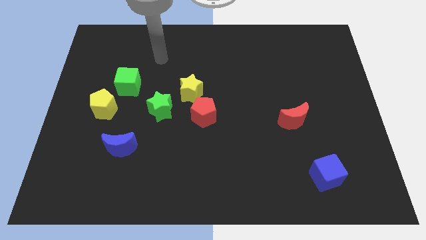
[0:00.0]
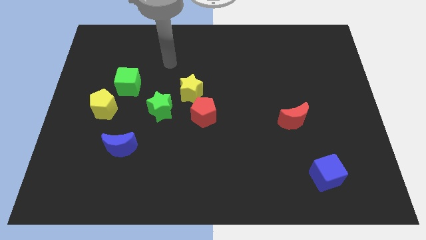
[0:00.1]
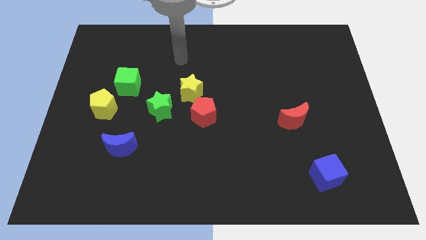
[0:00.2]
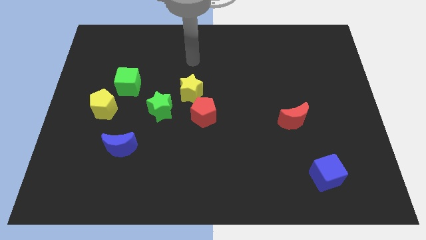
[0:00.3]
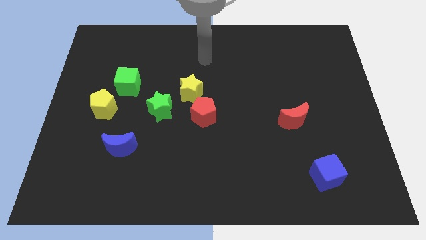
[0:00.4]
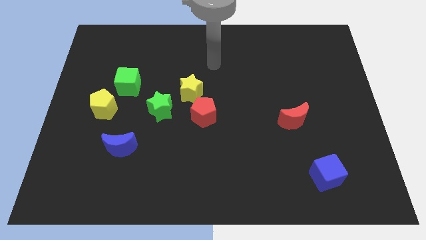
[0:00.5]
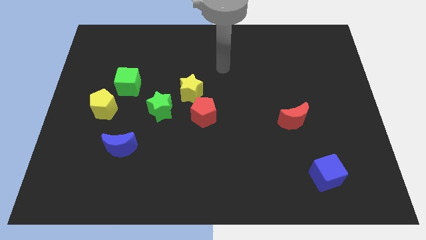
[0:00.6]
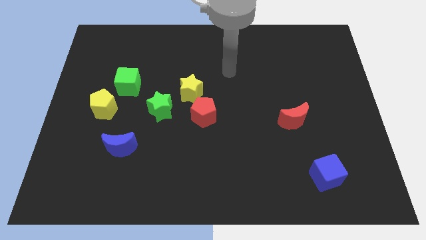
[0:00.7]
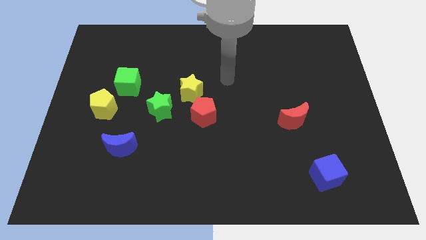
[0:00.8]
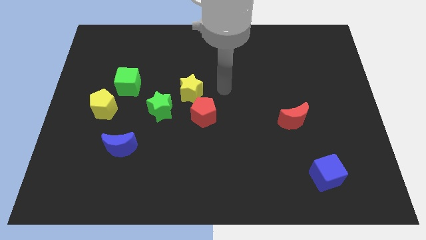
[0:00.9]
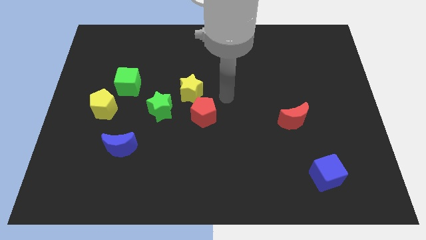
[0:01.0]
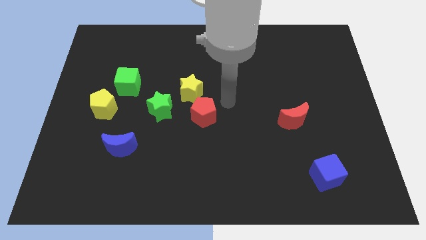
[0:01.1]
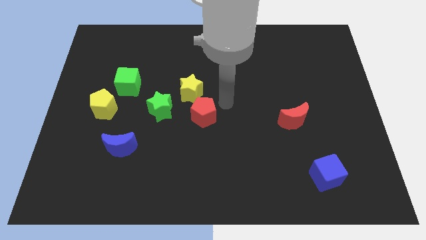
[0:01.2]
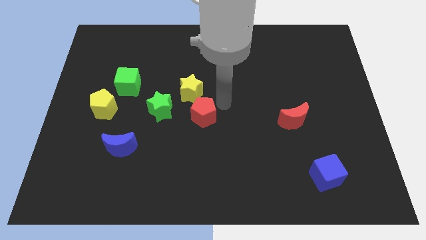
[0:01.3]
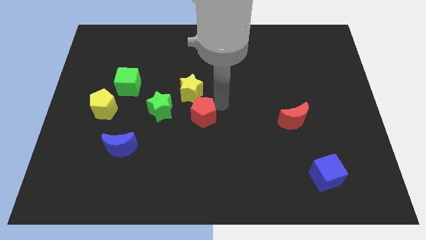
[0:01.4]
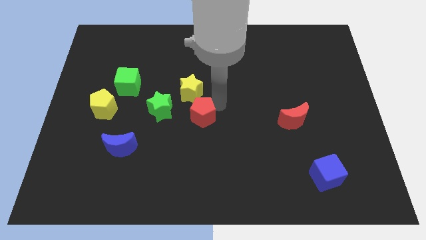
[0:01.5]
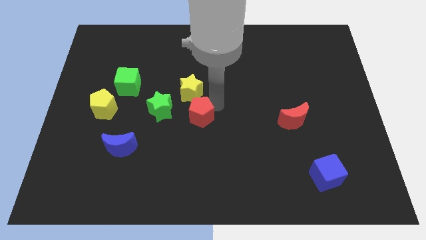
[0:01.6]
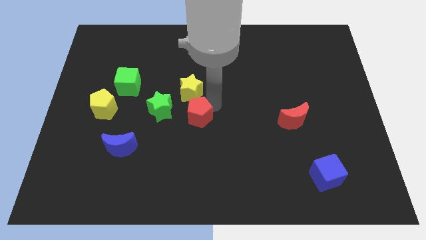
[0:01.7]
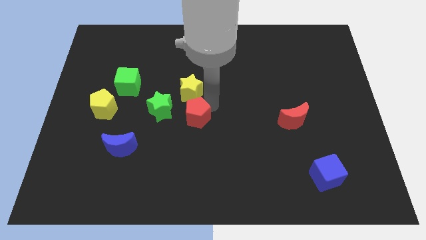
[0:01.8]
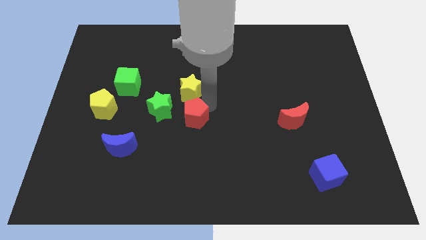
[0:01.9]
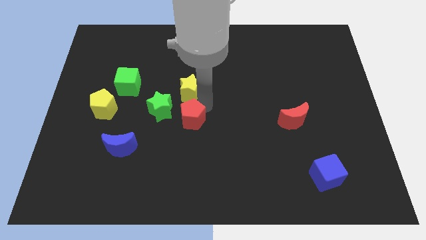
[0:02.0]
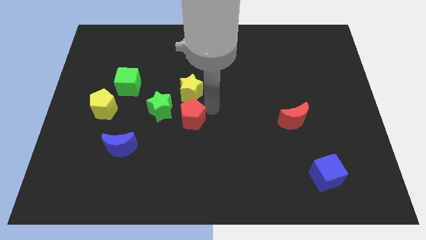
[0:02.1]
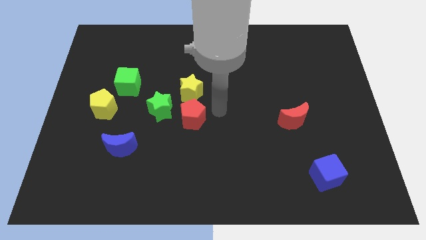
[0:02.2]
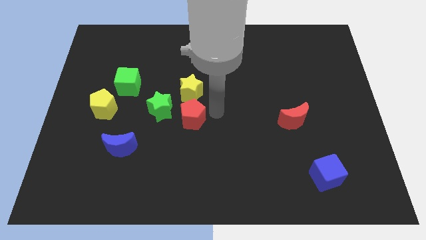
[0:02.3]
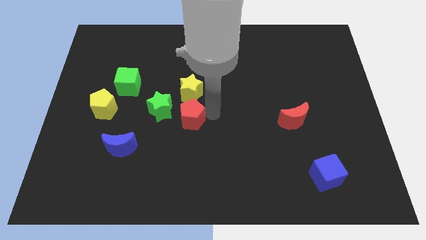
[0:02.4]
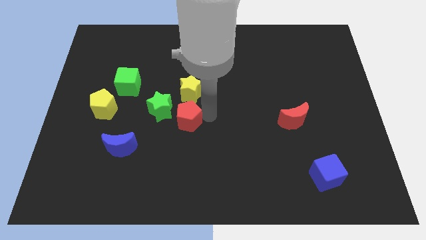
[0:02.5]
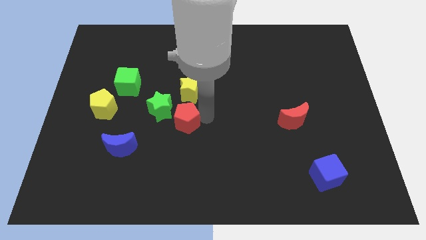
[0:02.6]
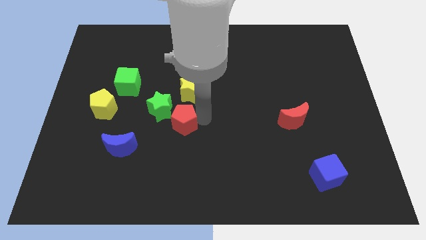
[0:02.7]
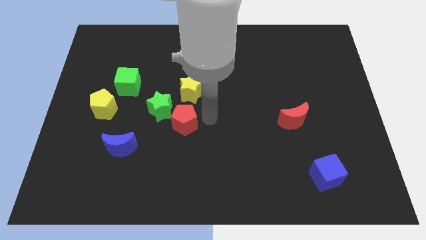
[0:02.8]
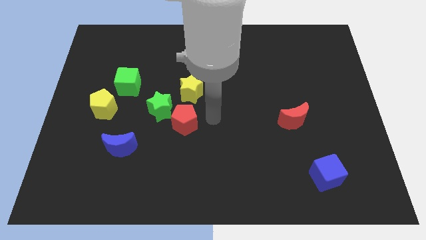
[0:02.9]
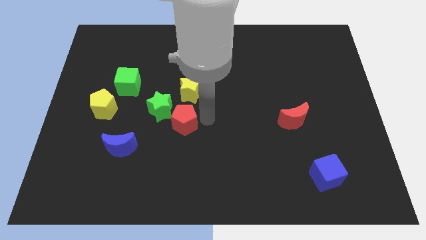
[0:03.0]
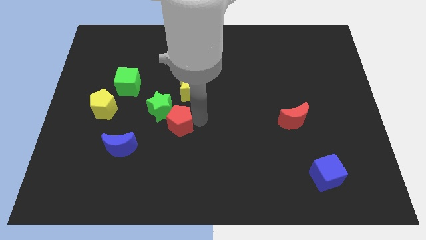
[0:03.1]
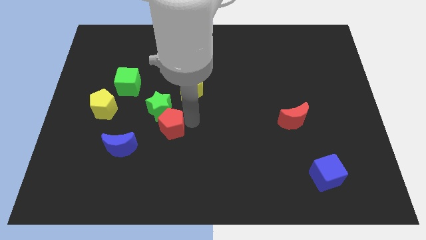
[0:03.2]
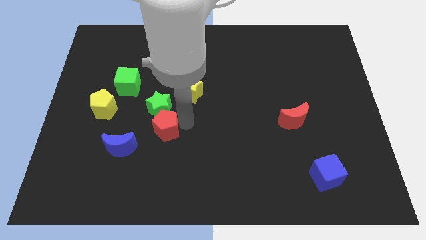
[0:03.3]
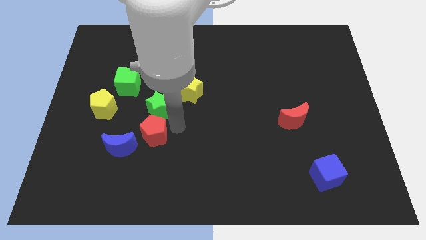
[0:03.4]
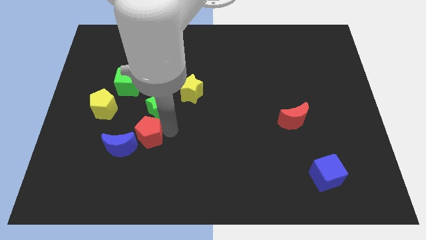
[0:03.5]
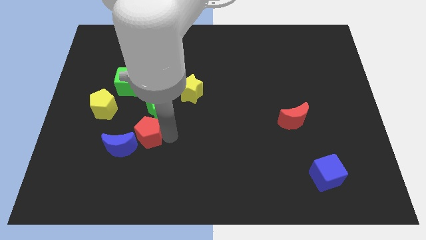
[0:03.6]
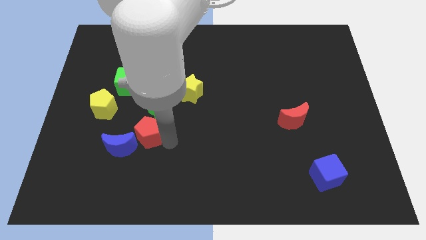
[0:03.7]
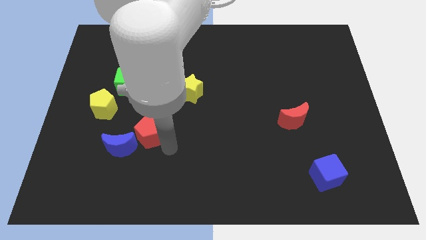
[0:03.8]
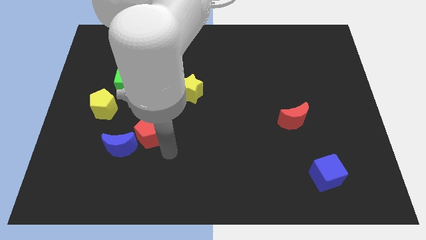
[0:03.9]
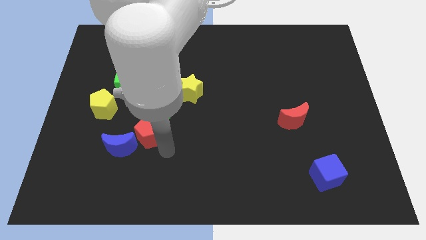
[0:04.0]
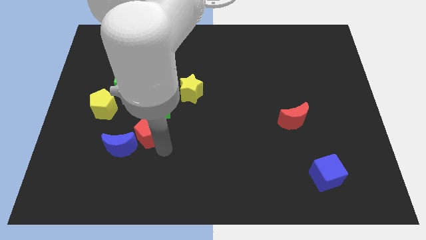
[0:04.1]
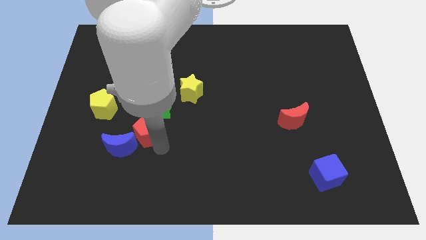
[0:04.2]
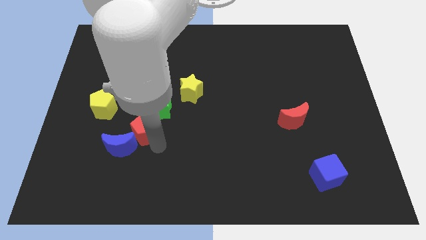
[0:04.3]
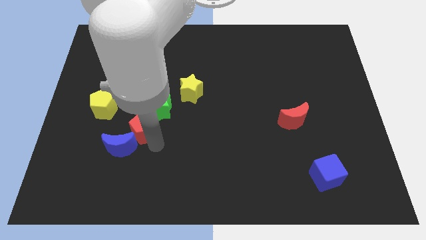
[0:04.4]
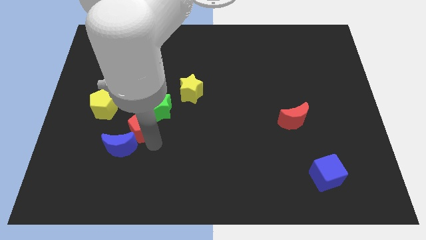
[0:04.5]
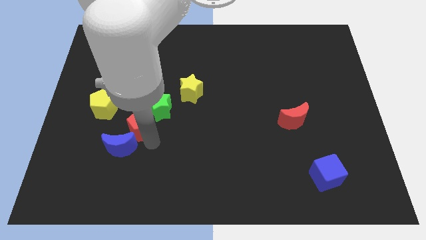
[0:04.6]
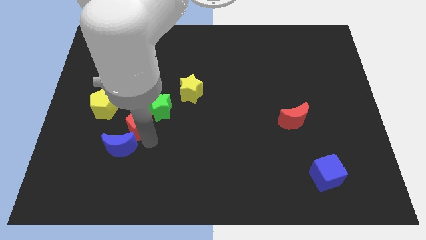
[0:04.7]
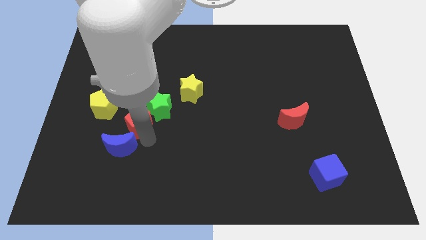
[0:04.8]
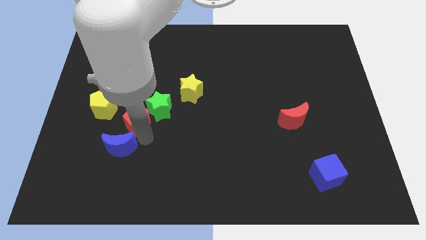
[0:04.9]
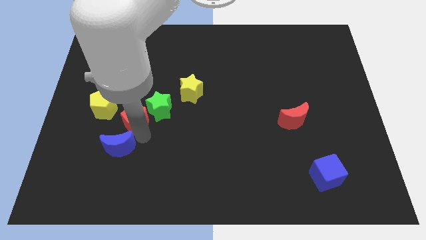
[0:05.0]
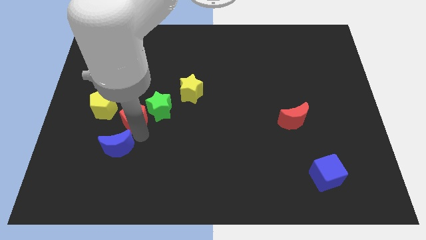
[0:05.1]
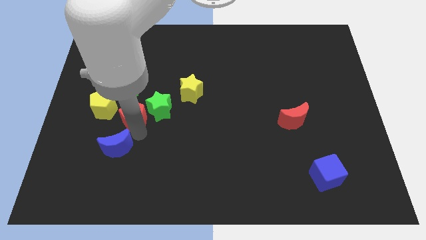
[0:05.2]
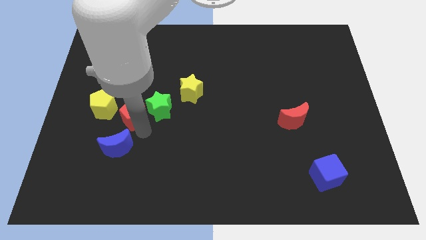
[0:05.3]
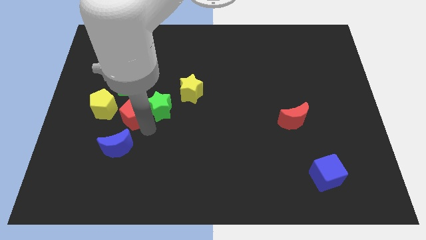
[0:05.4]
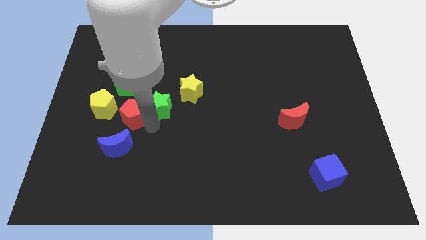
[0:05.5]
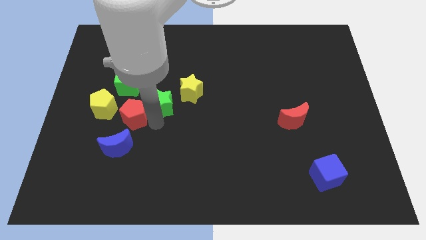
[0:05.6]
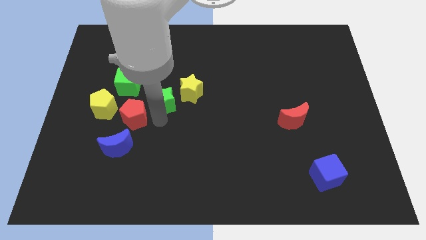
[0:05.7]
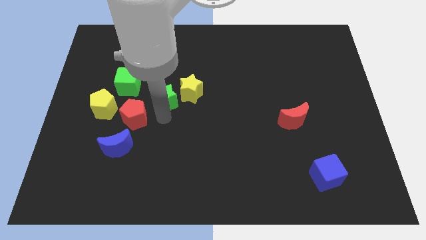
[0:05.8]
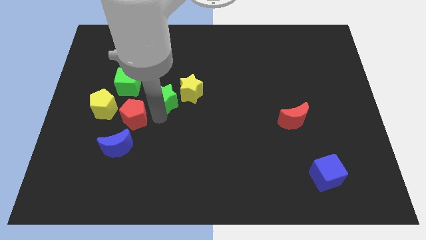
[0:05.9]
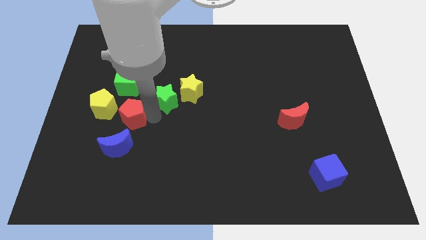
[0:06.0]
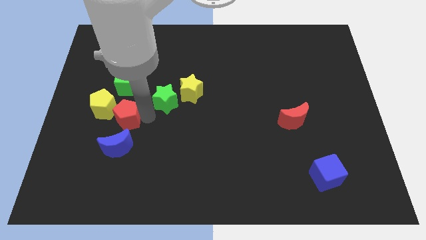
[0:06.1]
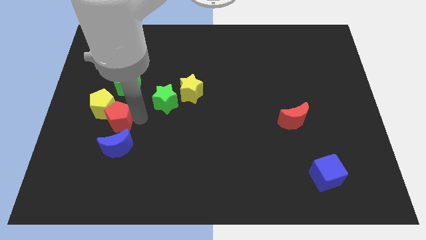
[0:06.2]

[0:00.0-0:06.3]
slide the red pentagon close to the yellow pentagon
